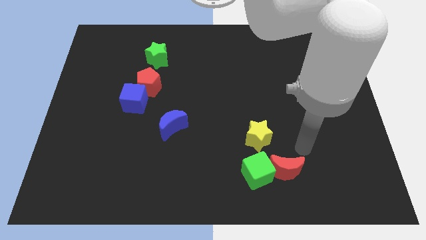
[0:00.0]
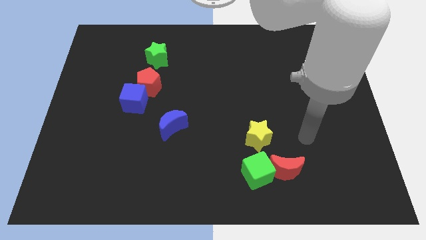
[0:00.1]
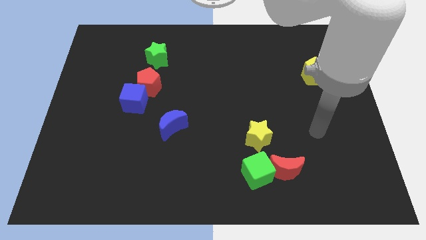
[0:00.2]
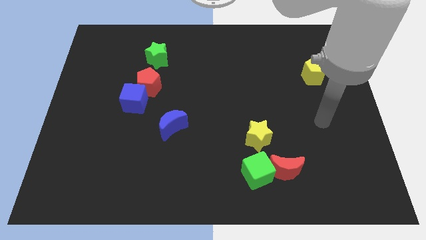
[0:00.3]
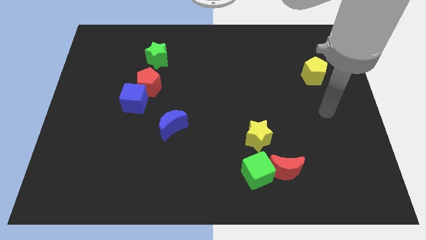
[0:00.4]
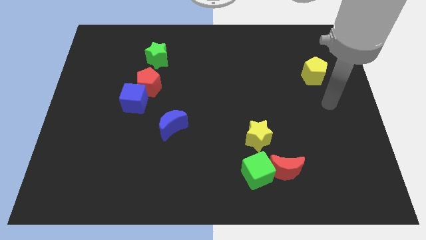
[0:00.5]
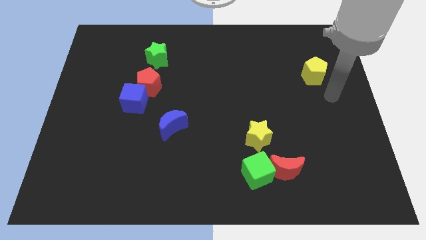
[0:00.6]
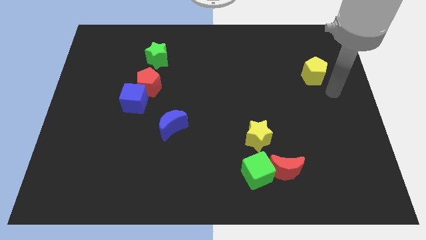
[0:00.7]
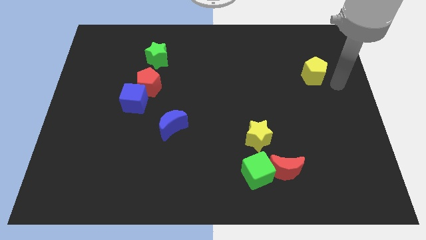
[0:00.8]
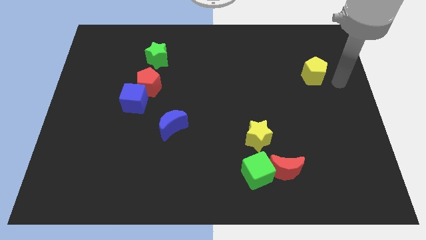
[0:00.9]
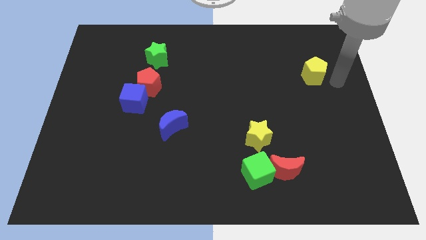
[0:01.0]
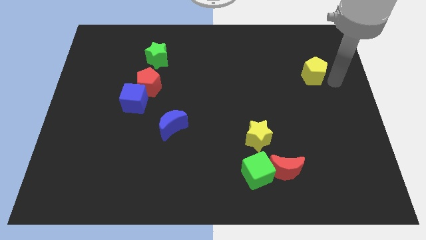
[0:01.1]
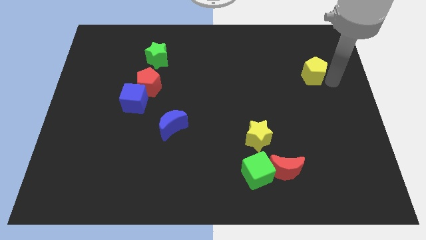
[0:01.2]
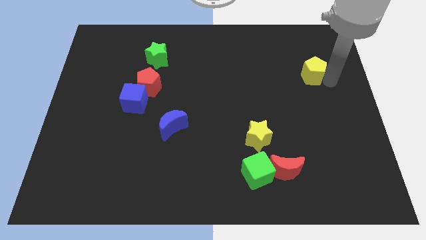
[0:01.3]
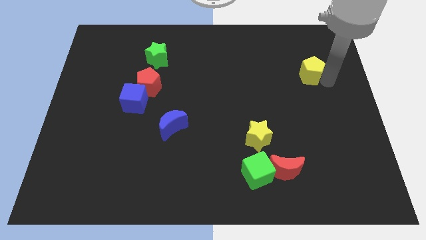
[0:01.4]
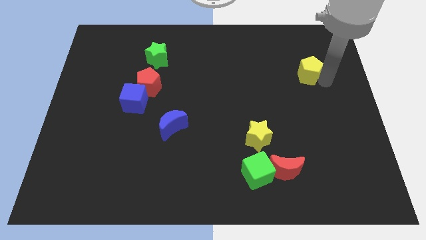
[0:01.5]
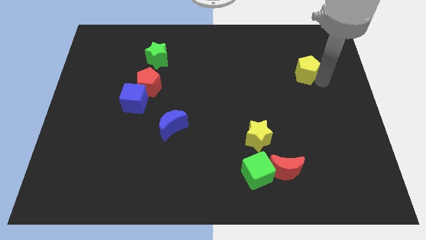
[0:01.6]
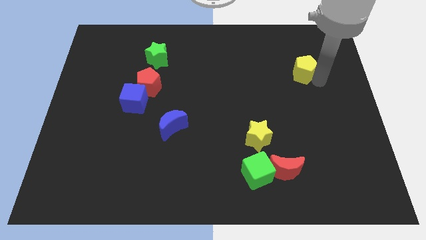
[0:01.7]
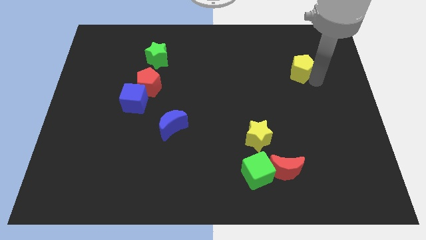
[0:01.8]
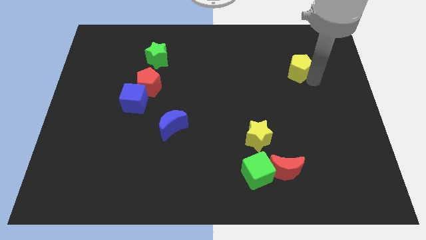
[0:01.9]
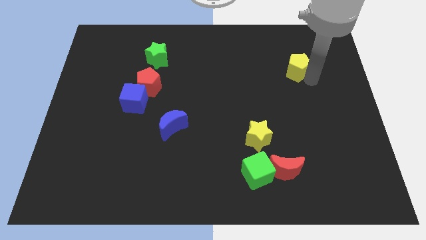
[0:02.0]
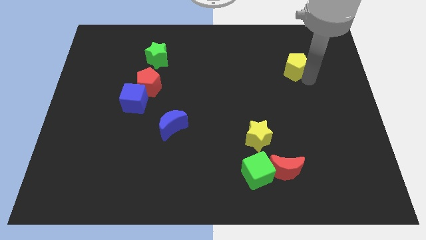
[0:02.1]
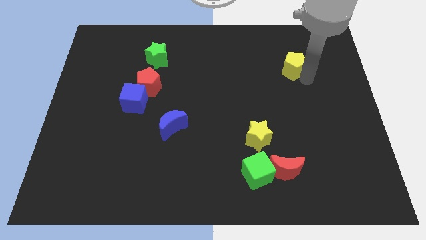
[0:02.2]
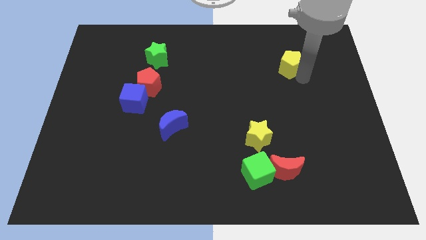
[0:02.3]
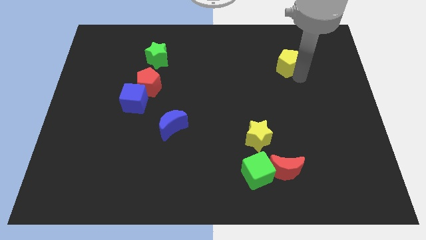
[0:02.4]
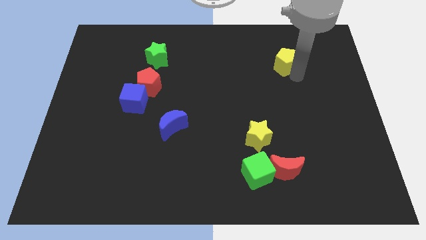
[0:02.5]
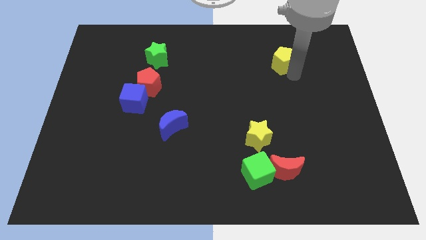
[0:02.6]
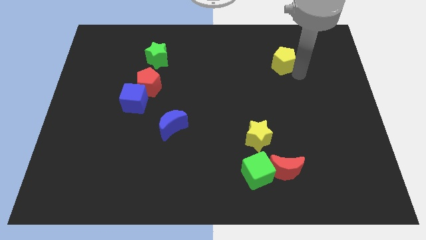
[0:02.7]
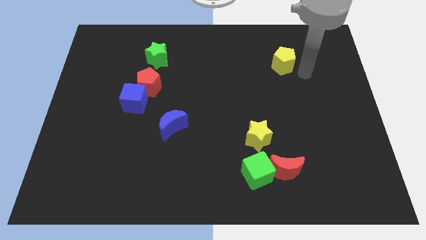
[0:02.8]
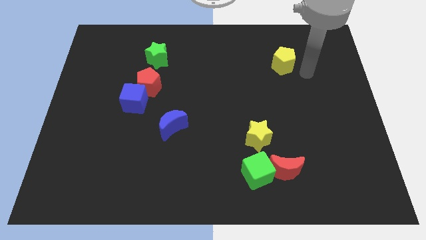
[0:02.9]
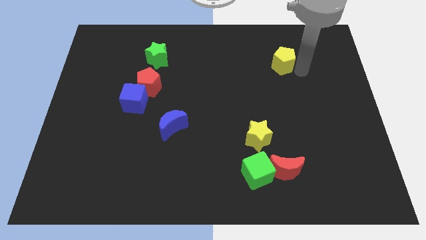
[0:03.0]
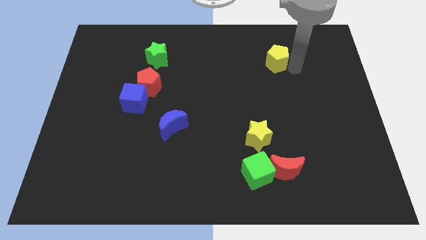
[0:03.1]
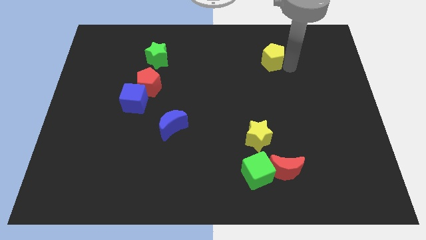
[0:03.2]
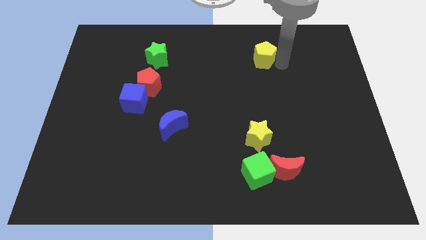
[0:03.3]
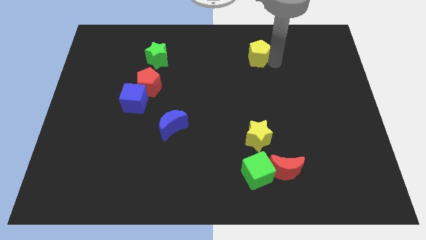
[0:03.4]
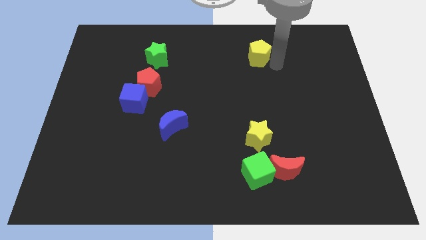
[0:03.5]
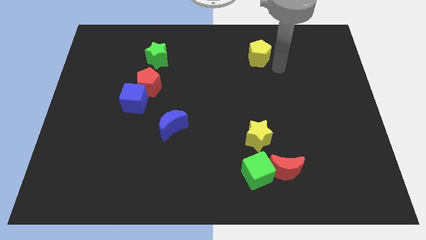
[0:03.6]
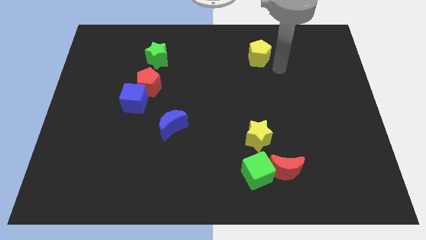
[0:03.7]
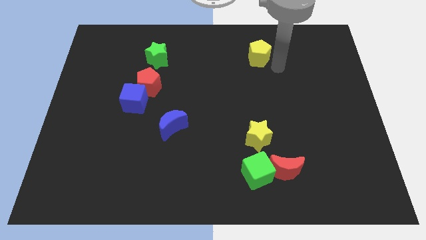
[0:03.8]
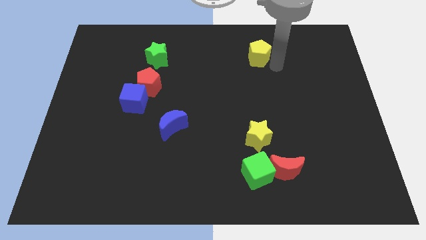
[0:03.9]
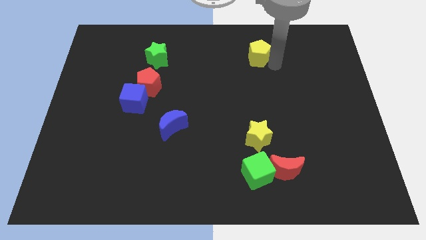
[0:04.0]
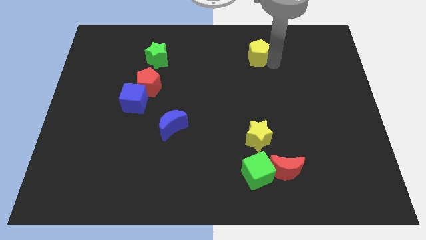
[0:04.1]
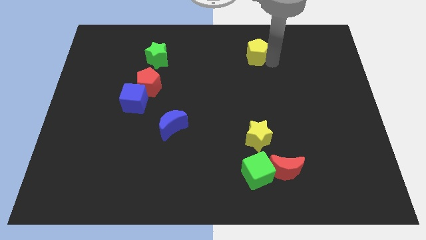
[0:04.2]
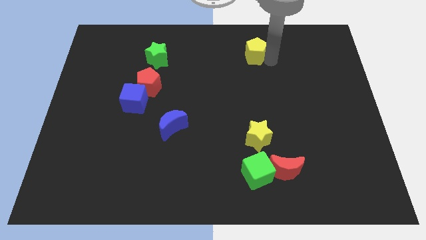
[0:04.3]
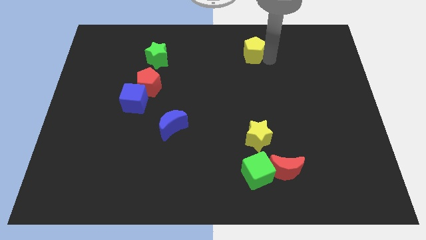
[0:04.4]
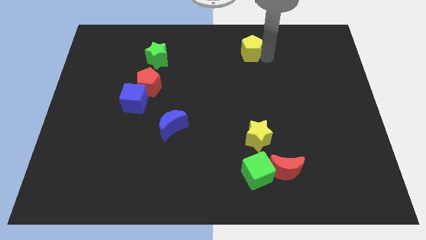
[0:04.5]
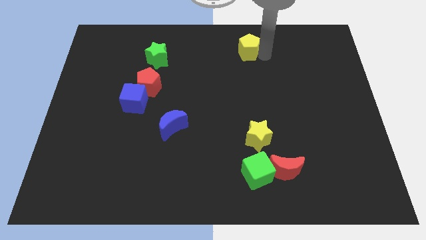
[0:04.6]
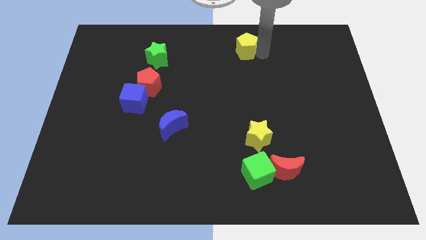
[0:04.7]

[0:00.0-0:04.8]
move the yellow pentagon to the top side

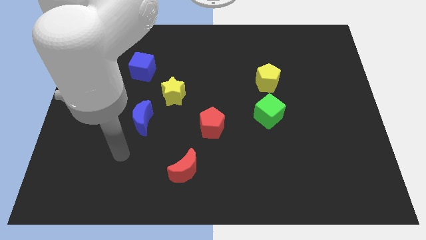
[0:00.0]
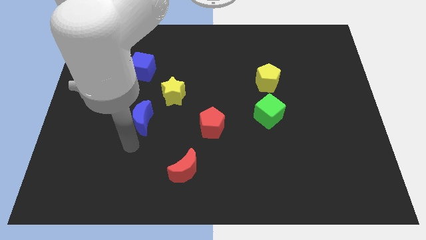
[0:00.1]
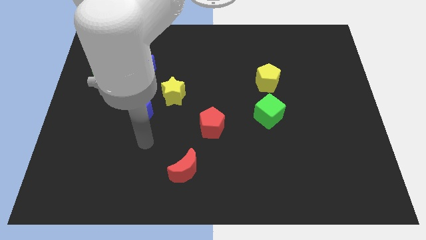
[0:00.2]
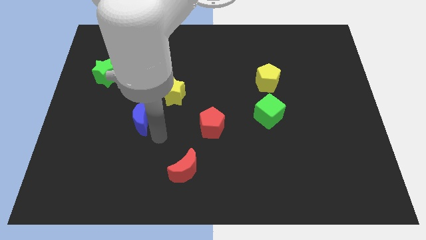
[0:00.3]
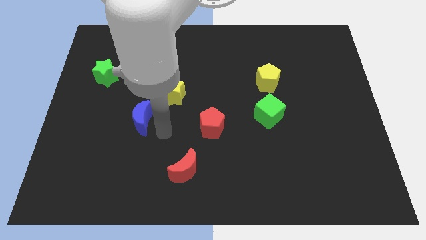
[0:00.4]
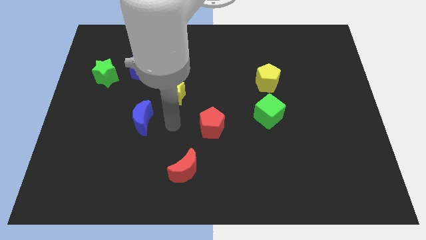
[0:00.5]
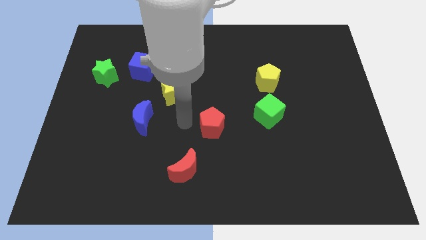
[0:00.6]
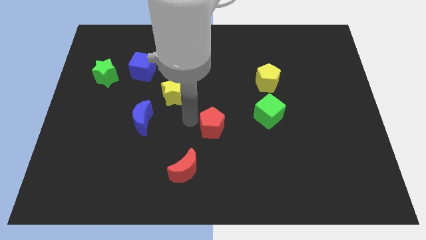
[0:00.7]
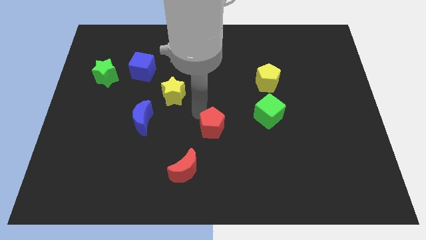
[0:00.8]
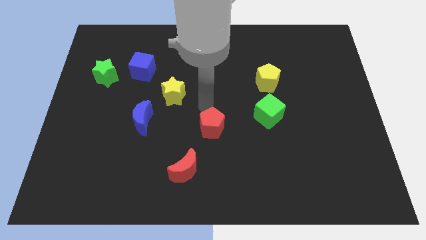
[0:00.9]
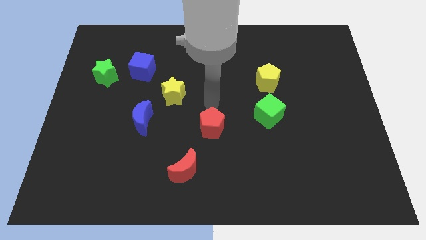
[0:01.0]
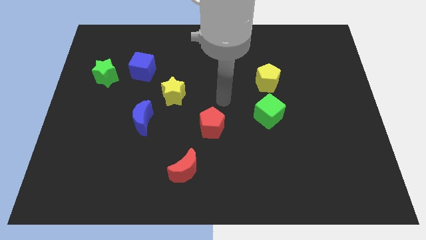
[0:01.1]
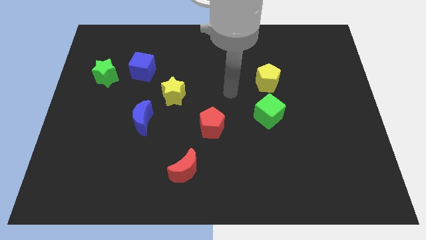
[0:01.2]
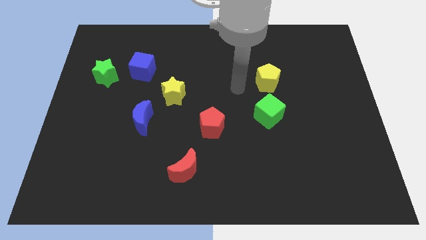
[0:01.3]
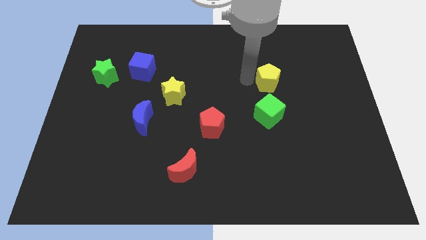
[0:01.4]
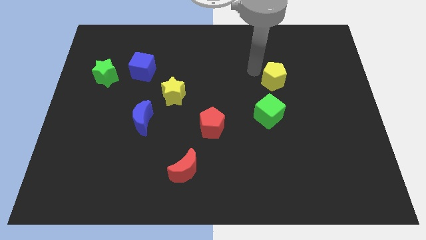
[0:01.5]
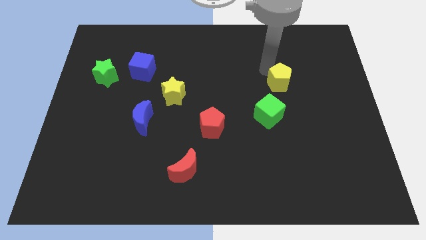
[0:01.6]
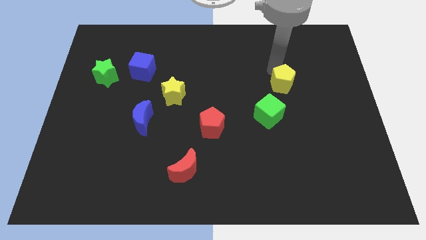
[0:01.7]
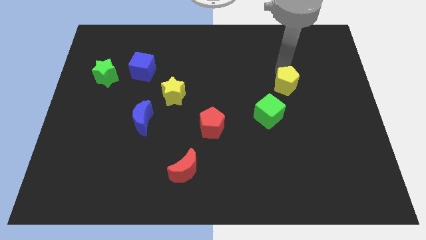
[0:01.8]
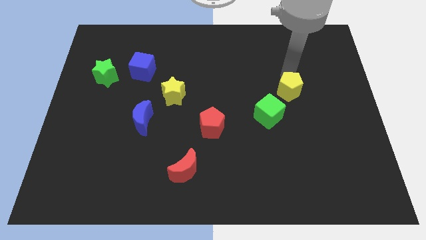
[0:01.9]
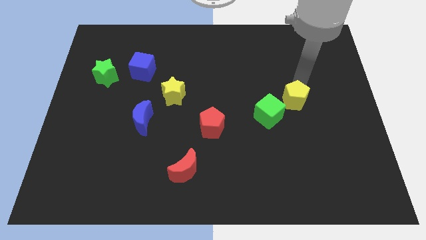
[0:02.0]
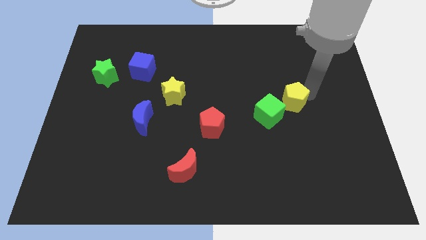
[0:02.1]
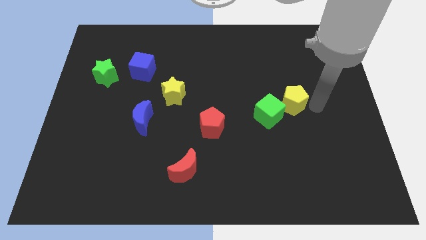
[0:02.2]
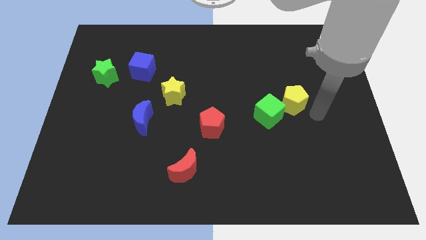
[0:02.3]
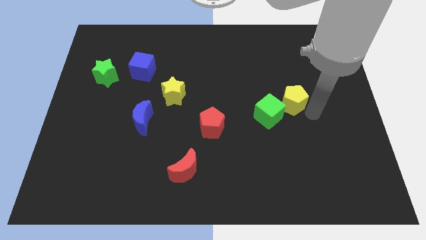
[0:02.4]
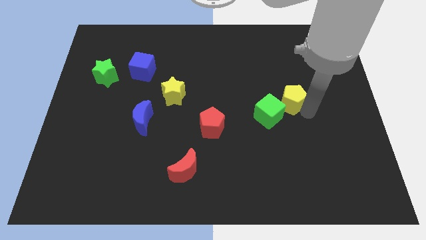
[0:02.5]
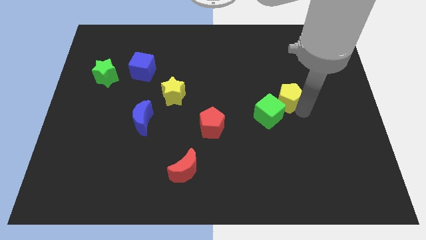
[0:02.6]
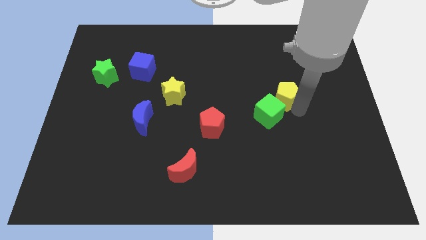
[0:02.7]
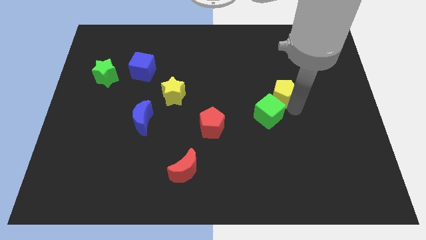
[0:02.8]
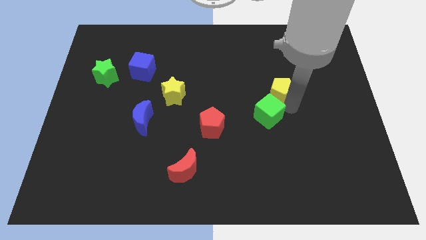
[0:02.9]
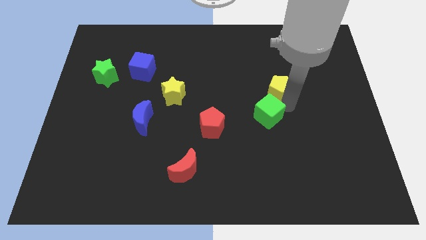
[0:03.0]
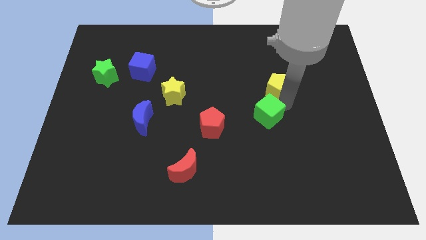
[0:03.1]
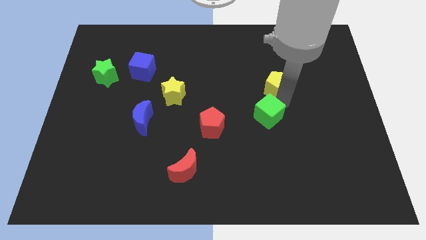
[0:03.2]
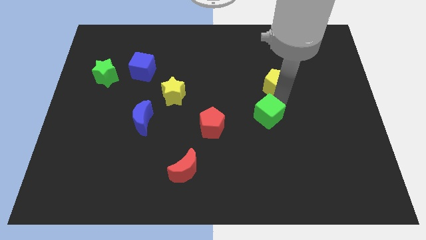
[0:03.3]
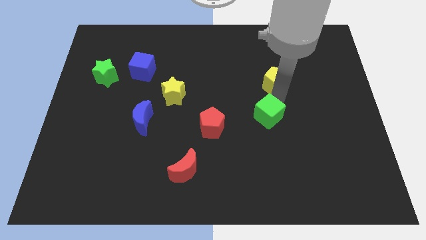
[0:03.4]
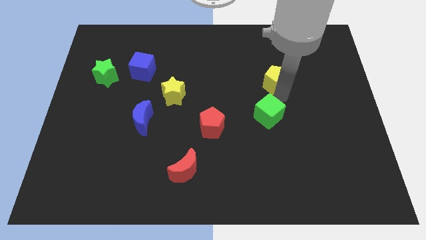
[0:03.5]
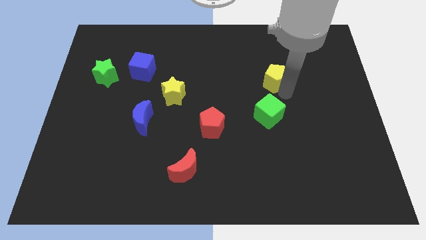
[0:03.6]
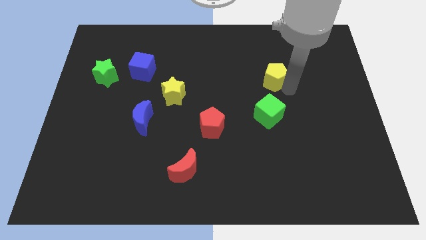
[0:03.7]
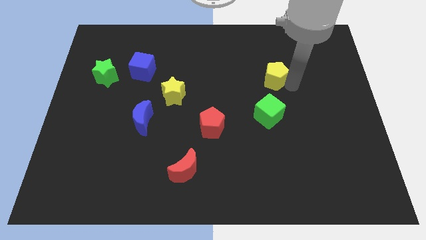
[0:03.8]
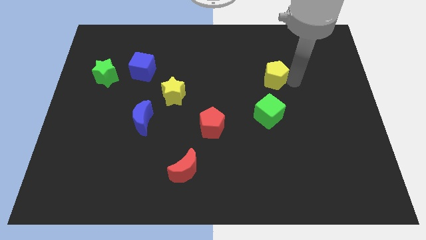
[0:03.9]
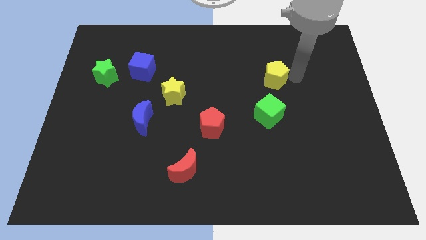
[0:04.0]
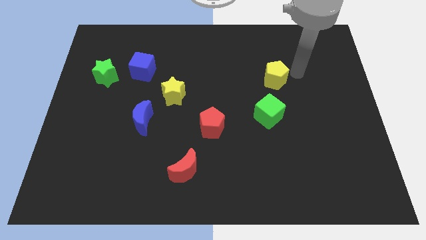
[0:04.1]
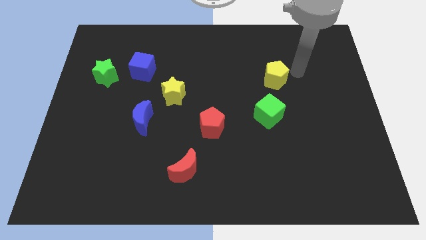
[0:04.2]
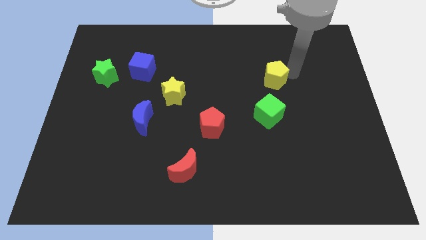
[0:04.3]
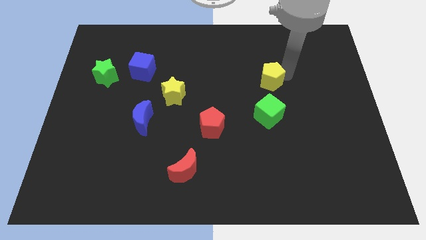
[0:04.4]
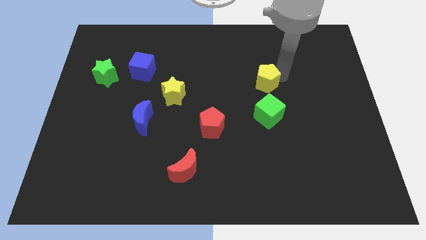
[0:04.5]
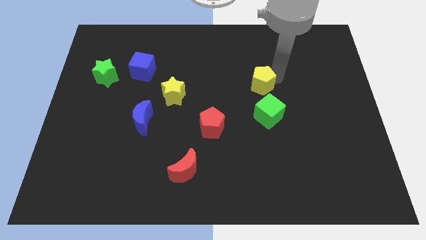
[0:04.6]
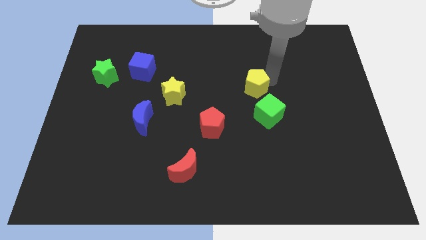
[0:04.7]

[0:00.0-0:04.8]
push the yellow pentagon to the middle
